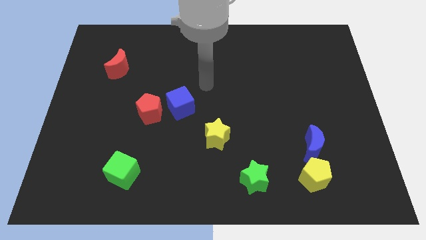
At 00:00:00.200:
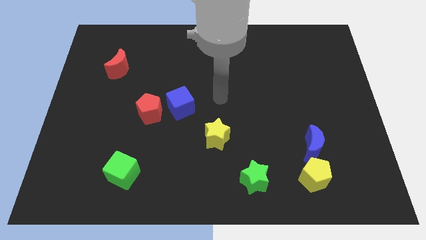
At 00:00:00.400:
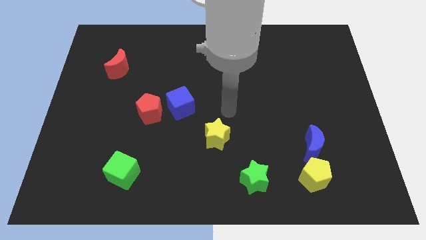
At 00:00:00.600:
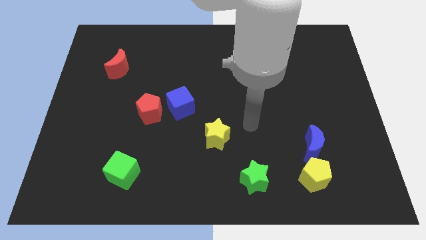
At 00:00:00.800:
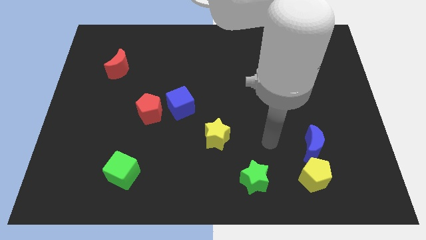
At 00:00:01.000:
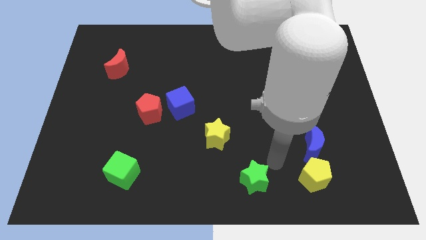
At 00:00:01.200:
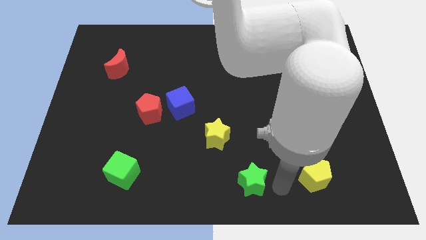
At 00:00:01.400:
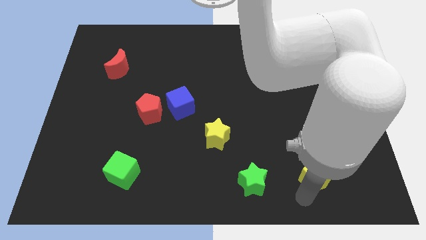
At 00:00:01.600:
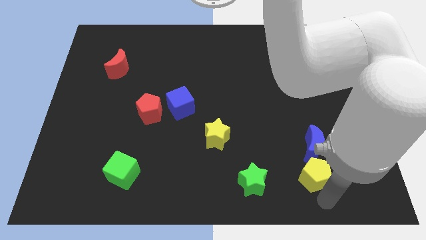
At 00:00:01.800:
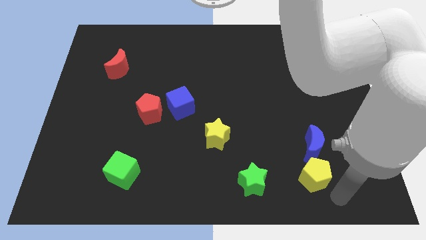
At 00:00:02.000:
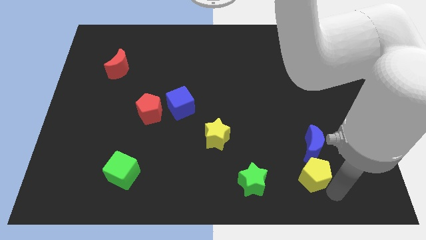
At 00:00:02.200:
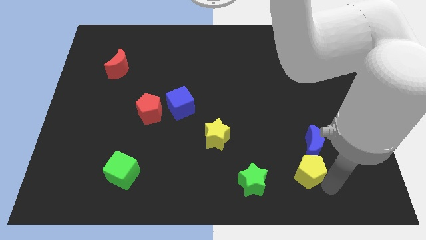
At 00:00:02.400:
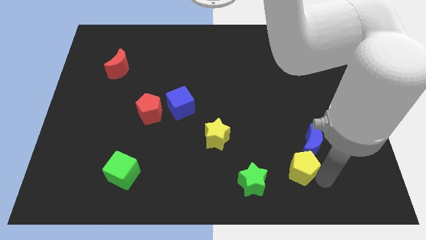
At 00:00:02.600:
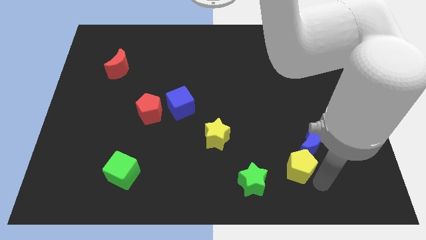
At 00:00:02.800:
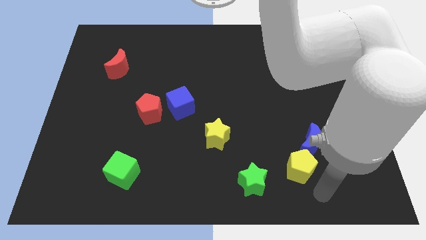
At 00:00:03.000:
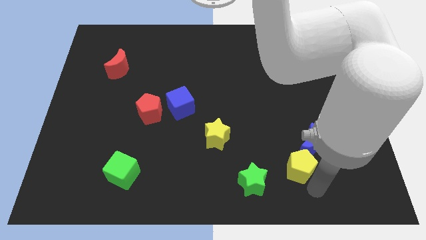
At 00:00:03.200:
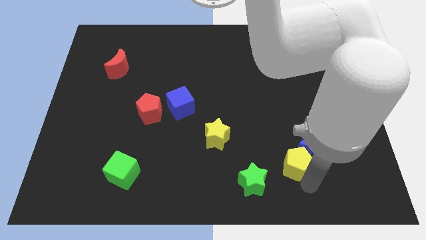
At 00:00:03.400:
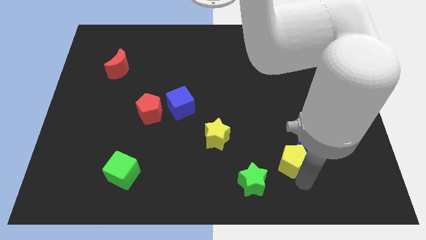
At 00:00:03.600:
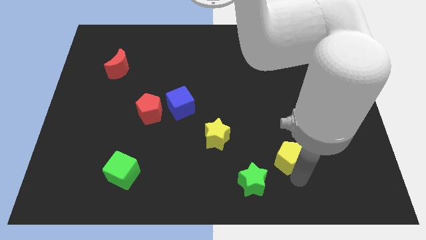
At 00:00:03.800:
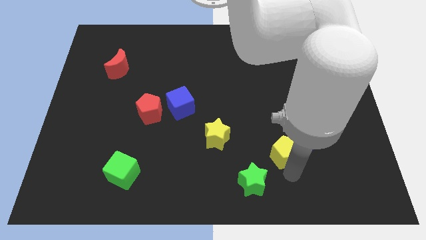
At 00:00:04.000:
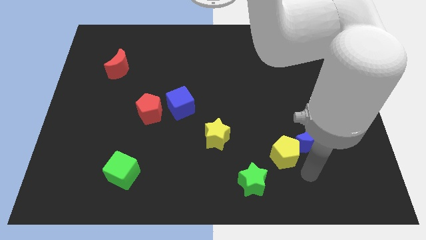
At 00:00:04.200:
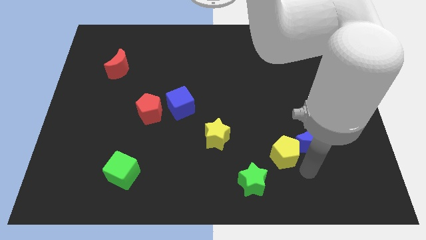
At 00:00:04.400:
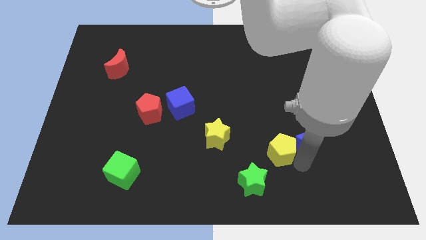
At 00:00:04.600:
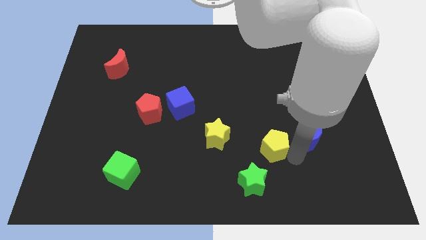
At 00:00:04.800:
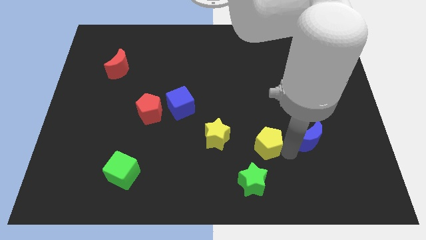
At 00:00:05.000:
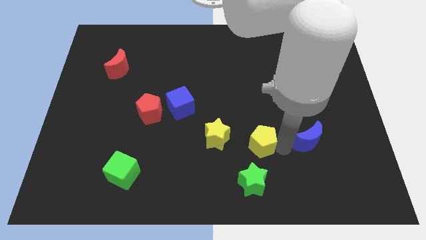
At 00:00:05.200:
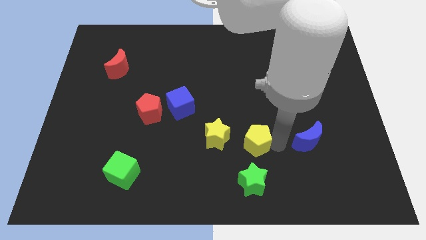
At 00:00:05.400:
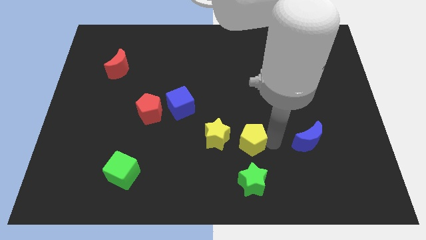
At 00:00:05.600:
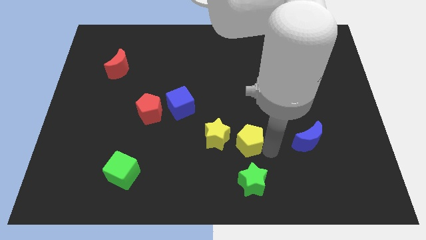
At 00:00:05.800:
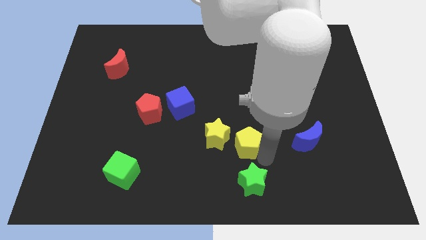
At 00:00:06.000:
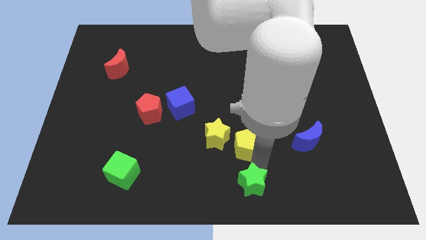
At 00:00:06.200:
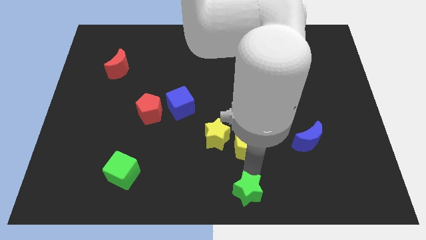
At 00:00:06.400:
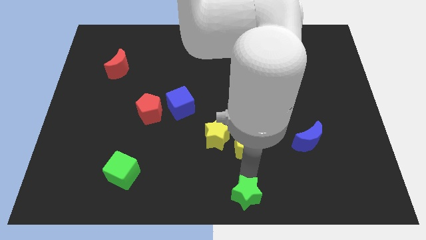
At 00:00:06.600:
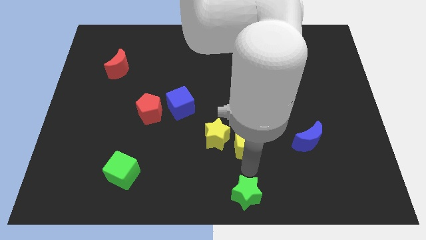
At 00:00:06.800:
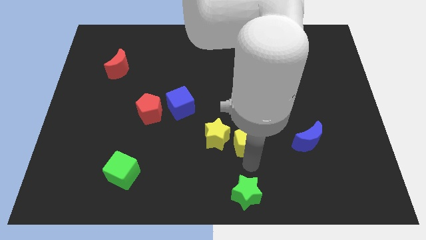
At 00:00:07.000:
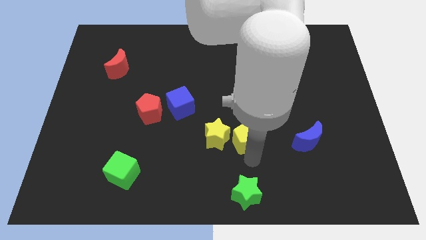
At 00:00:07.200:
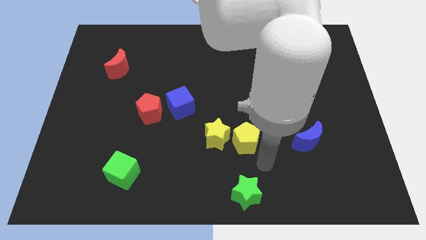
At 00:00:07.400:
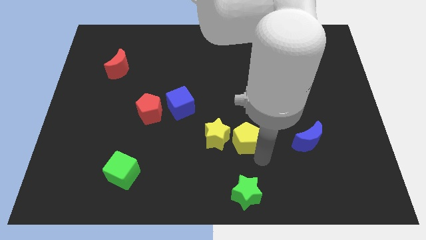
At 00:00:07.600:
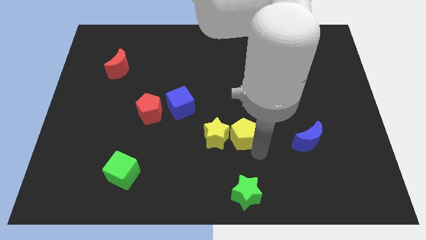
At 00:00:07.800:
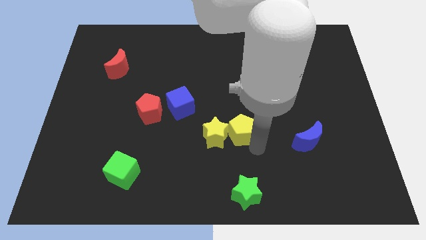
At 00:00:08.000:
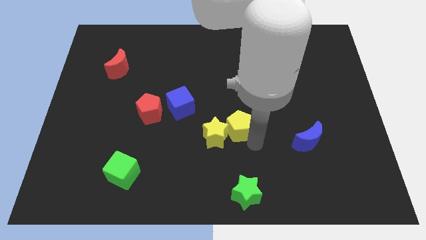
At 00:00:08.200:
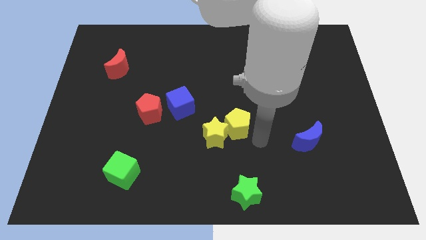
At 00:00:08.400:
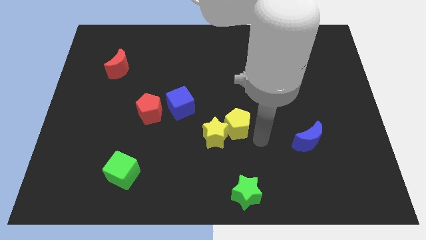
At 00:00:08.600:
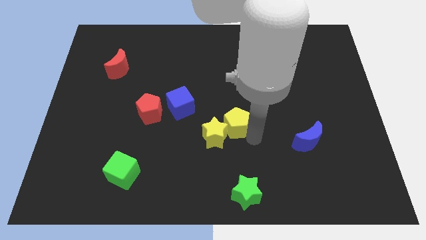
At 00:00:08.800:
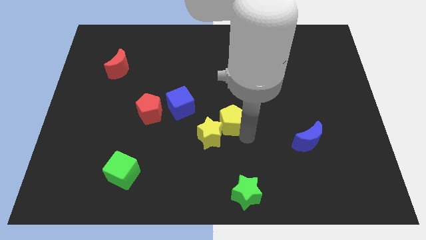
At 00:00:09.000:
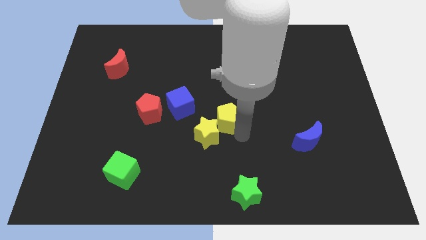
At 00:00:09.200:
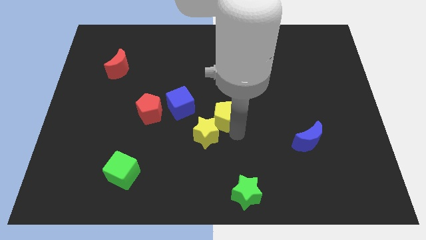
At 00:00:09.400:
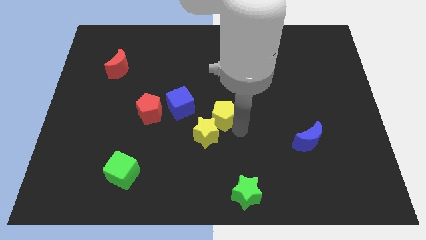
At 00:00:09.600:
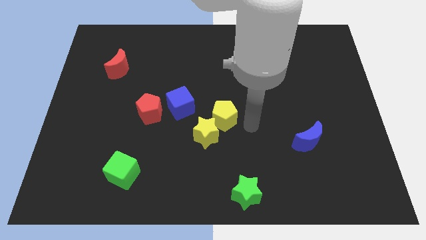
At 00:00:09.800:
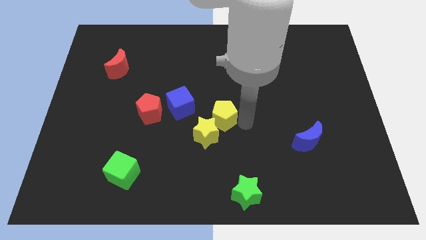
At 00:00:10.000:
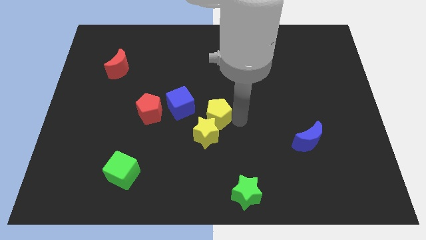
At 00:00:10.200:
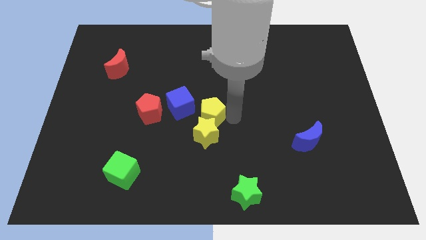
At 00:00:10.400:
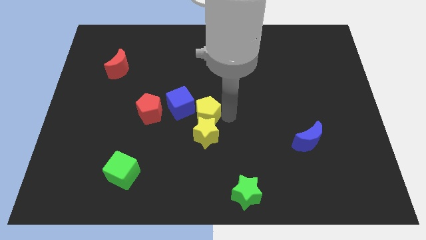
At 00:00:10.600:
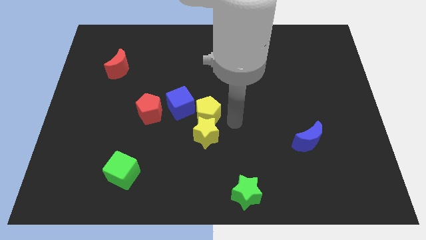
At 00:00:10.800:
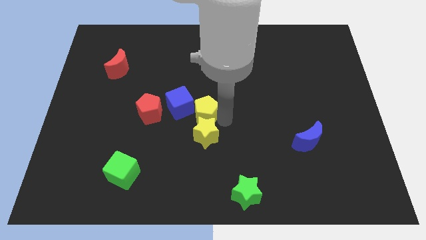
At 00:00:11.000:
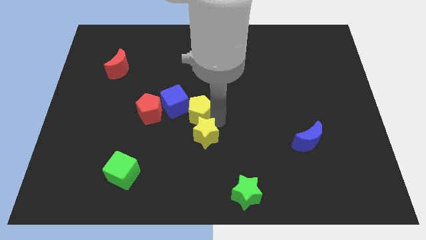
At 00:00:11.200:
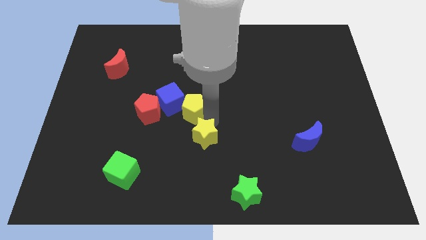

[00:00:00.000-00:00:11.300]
slide the yellow pentagon towards the blue cube
